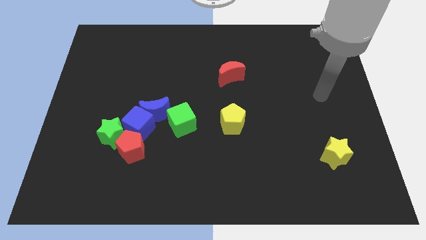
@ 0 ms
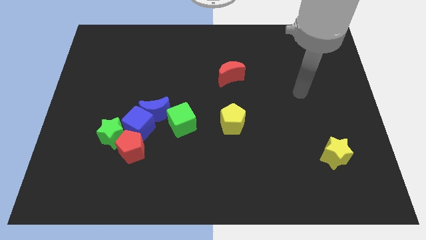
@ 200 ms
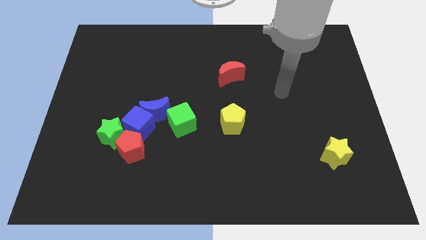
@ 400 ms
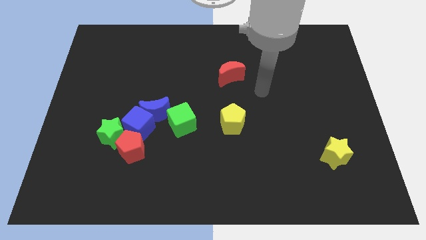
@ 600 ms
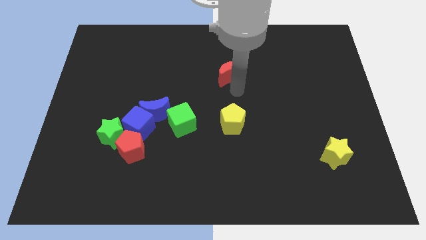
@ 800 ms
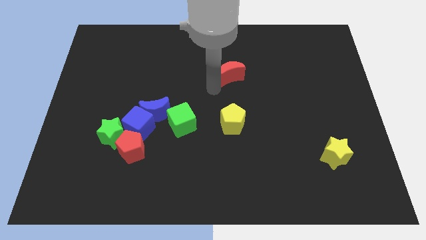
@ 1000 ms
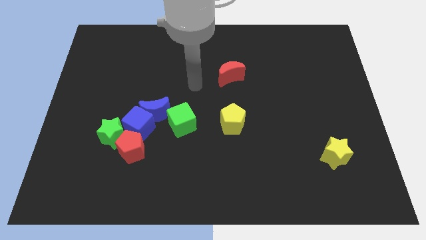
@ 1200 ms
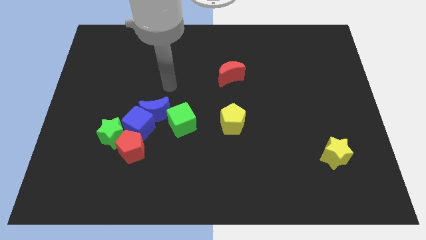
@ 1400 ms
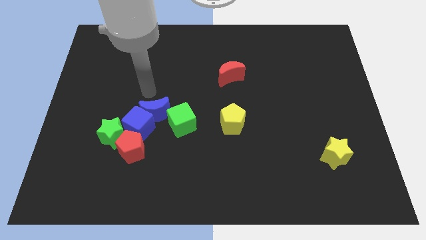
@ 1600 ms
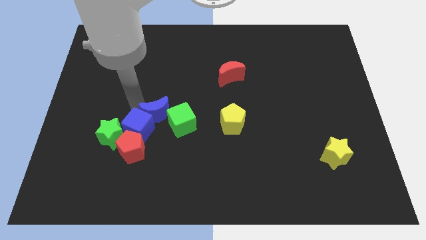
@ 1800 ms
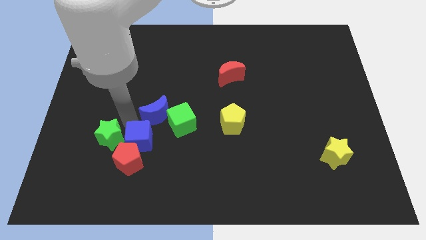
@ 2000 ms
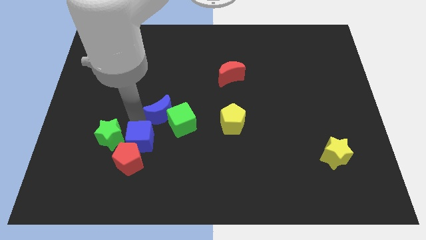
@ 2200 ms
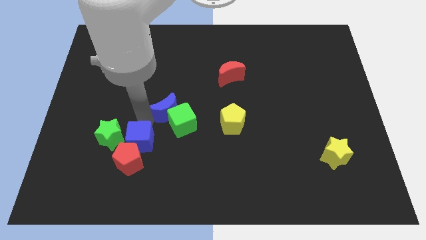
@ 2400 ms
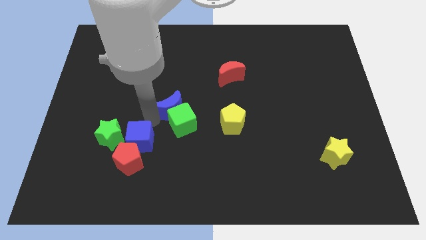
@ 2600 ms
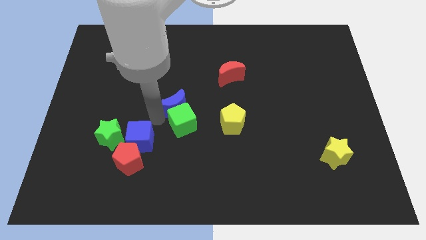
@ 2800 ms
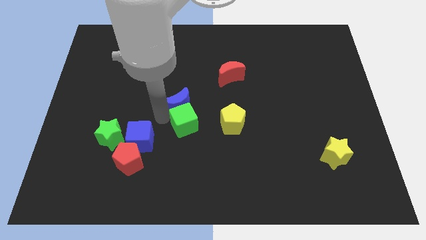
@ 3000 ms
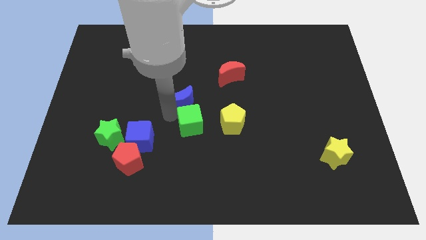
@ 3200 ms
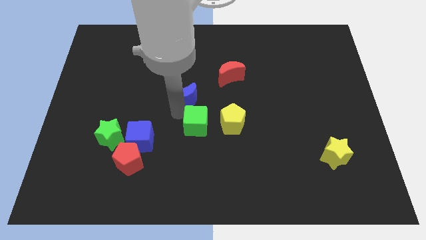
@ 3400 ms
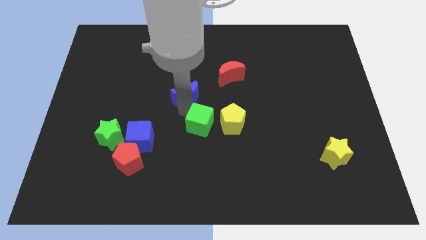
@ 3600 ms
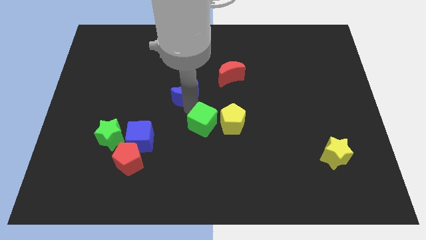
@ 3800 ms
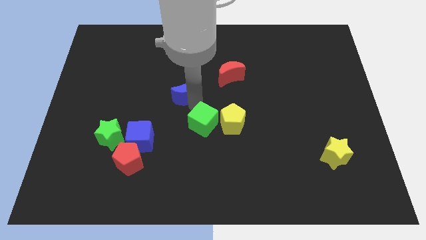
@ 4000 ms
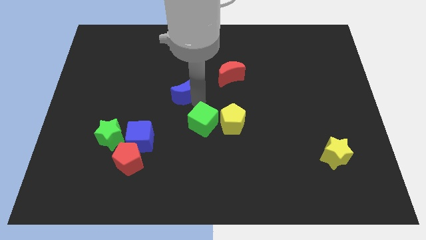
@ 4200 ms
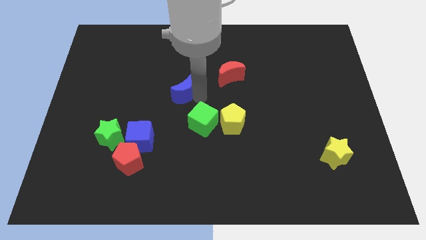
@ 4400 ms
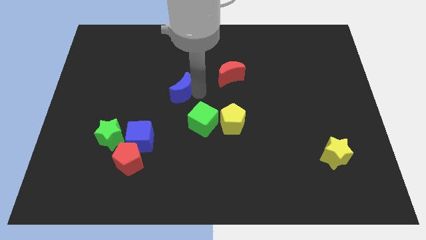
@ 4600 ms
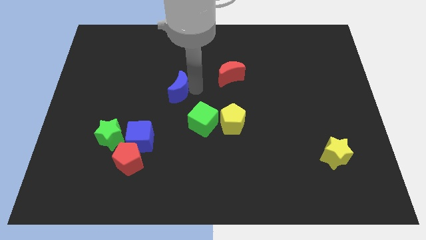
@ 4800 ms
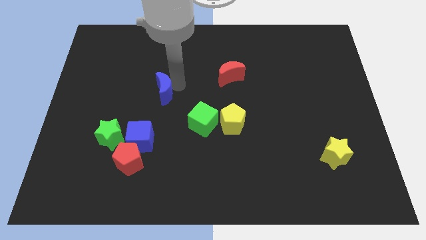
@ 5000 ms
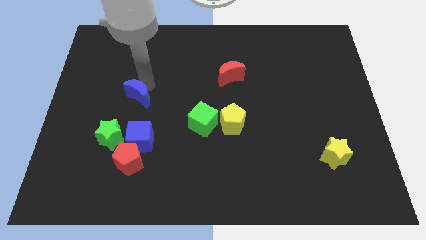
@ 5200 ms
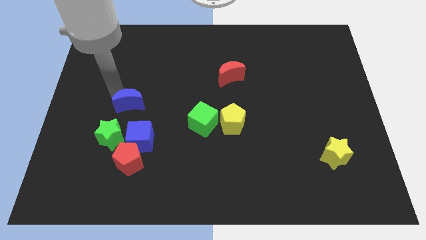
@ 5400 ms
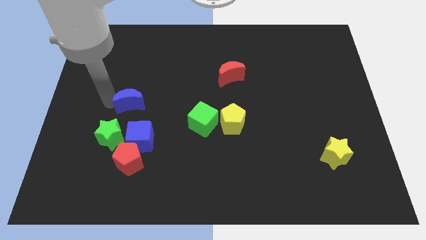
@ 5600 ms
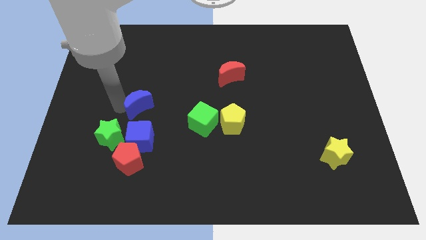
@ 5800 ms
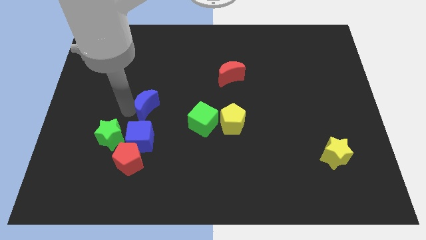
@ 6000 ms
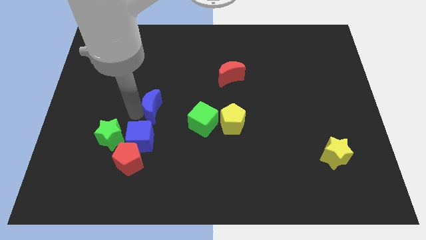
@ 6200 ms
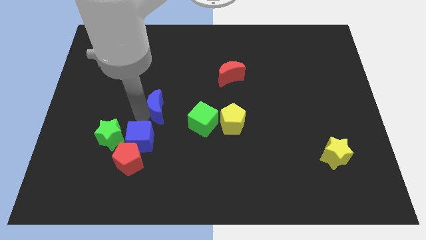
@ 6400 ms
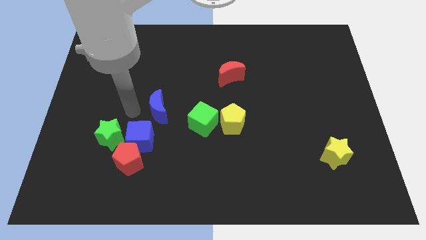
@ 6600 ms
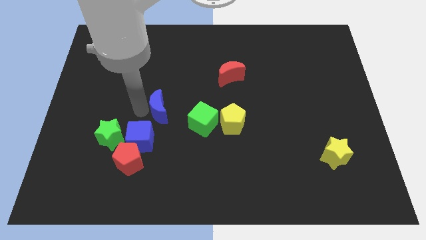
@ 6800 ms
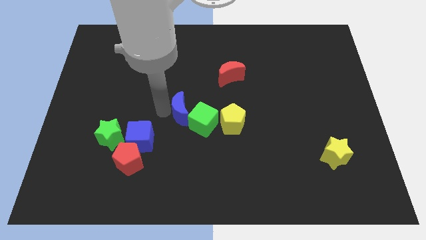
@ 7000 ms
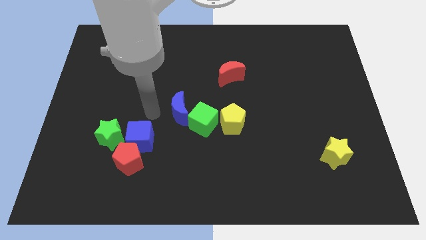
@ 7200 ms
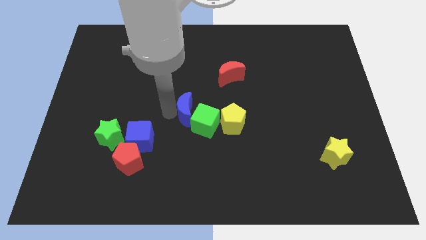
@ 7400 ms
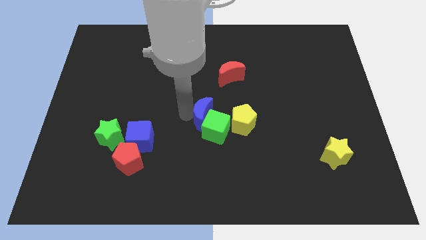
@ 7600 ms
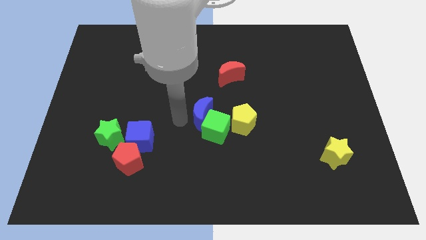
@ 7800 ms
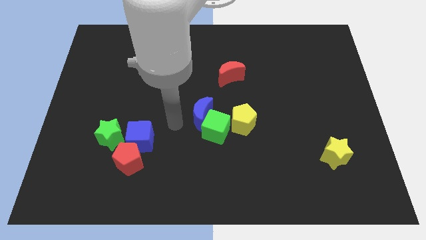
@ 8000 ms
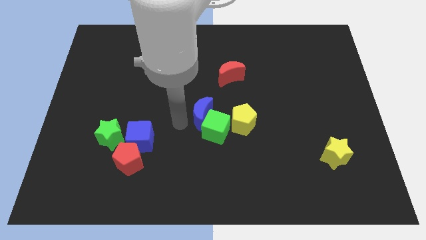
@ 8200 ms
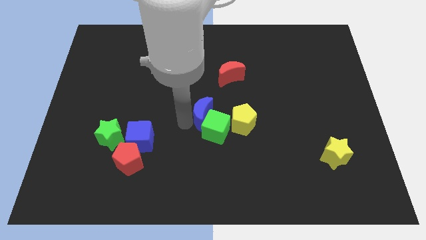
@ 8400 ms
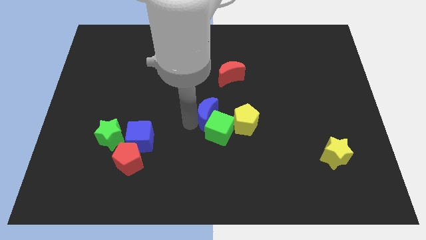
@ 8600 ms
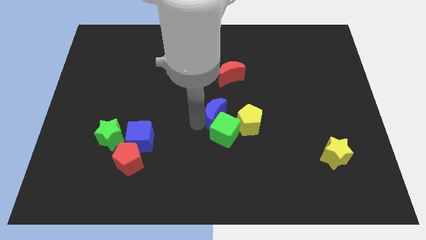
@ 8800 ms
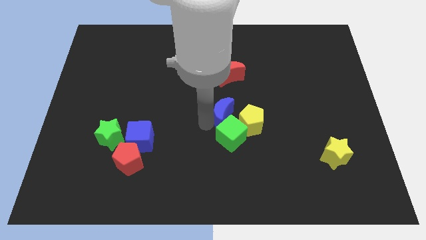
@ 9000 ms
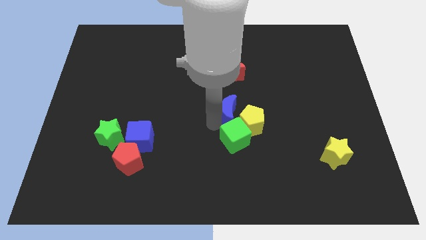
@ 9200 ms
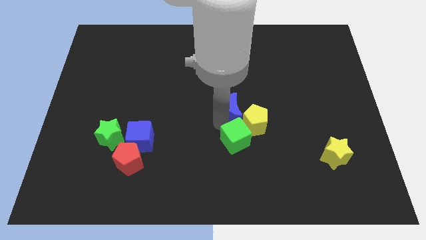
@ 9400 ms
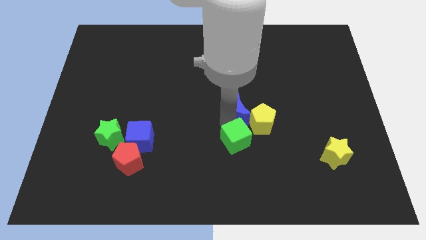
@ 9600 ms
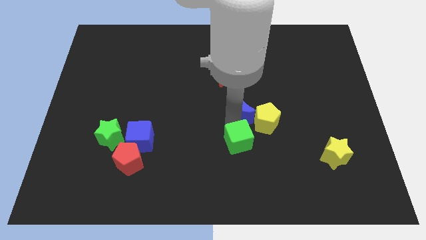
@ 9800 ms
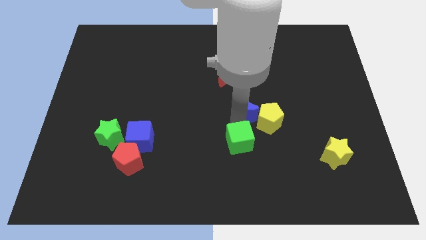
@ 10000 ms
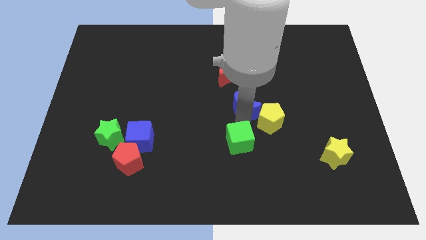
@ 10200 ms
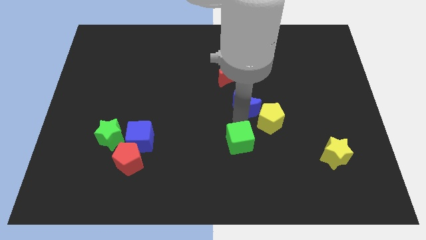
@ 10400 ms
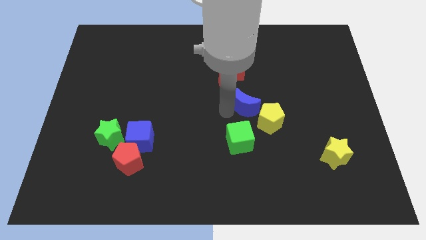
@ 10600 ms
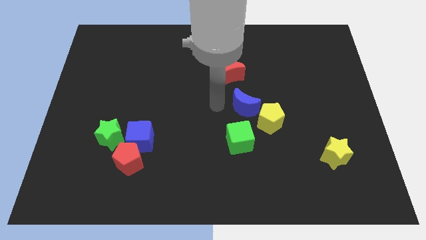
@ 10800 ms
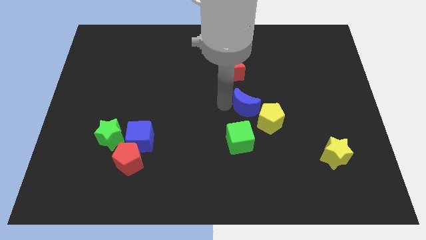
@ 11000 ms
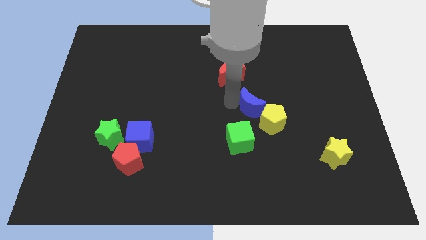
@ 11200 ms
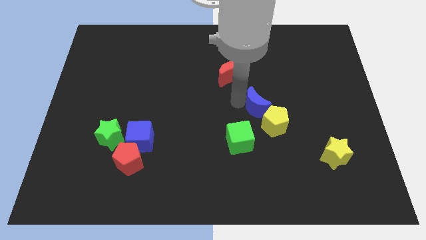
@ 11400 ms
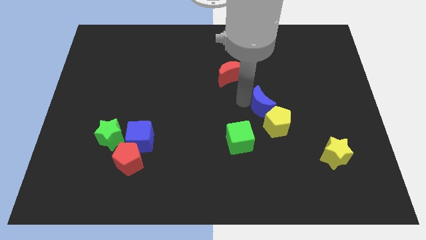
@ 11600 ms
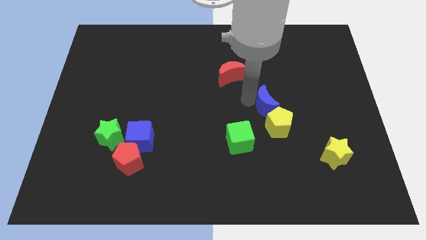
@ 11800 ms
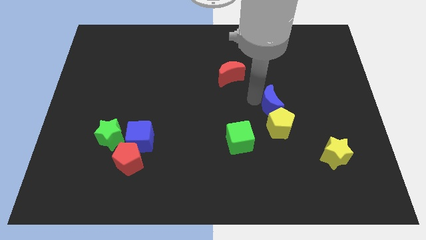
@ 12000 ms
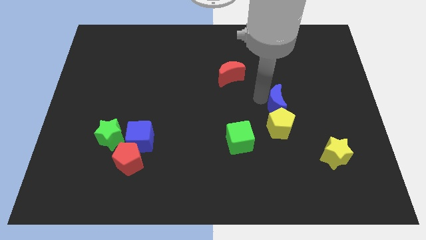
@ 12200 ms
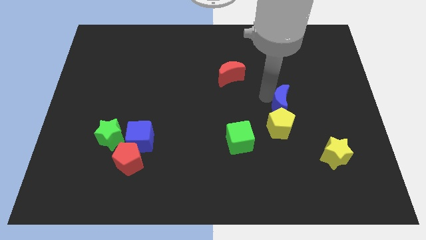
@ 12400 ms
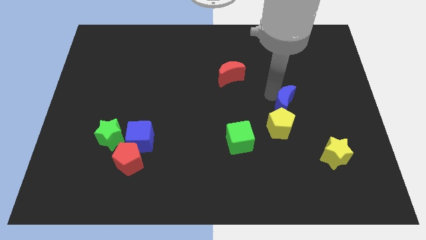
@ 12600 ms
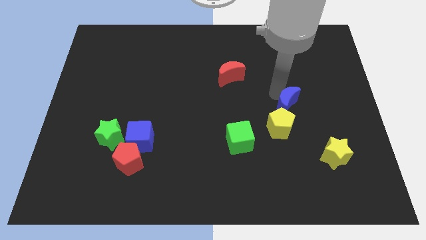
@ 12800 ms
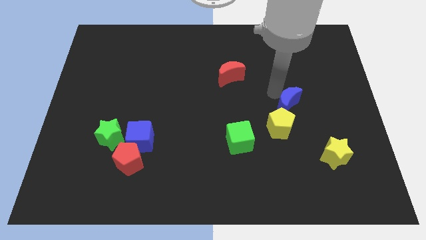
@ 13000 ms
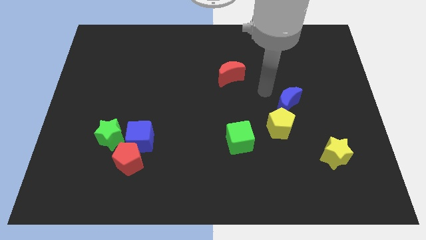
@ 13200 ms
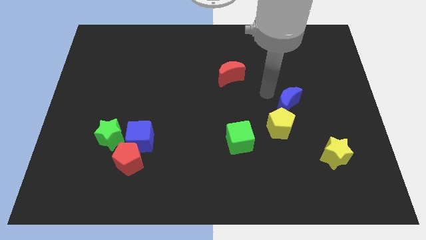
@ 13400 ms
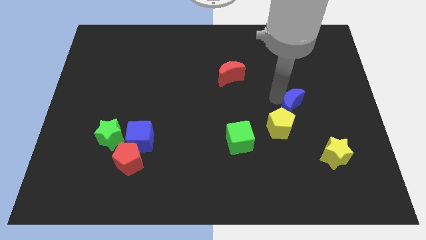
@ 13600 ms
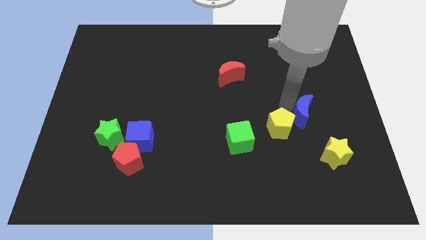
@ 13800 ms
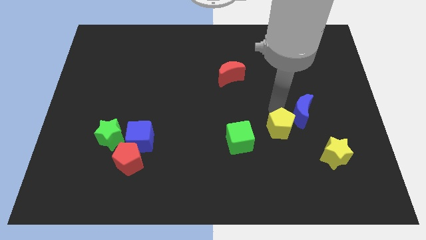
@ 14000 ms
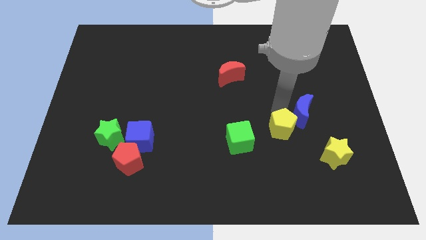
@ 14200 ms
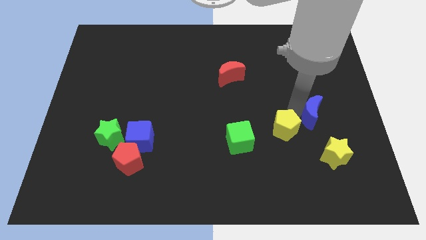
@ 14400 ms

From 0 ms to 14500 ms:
push the blue moon to the top of the yellow star
